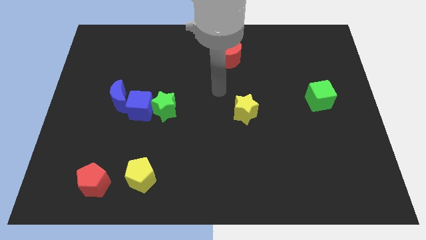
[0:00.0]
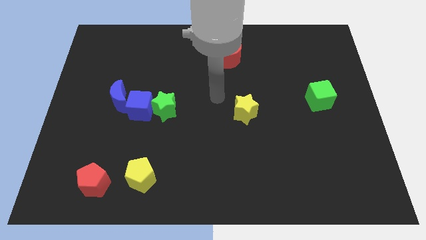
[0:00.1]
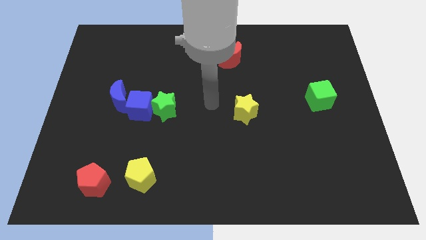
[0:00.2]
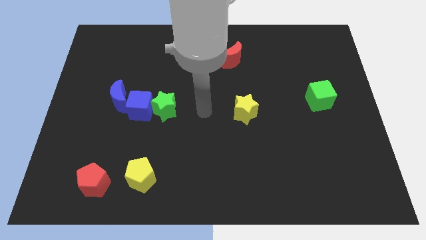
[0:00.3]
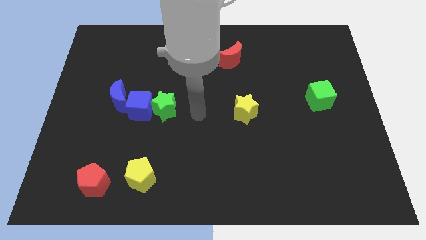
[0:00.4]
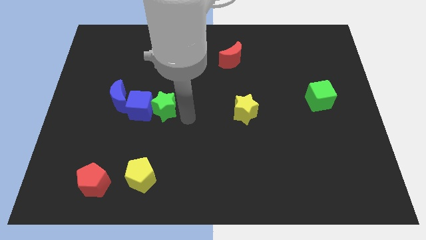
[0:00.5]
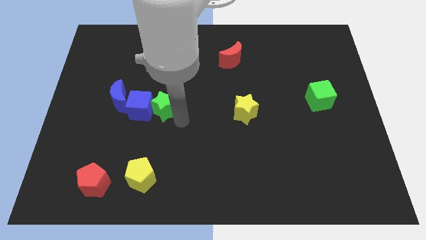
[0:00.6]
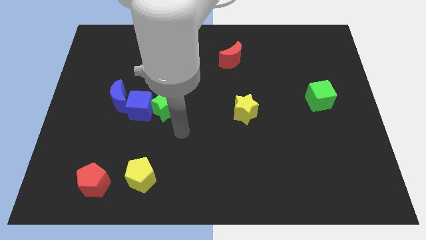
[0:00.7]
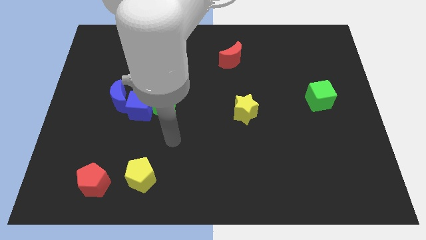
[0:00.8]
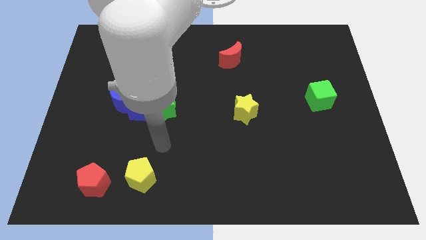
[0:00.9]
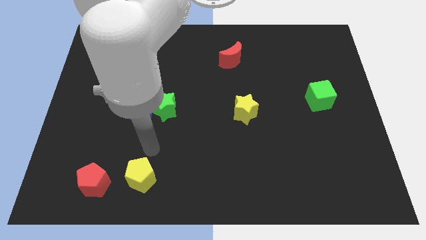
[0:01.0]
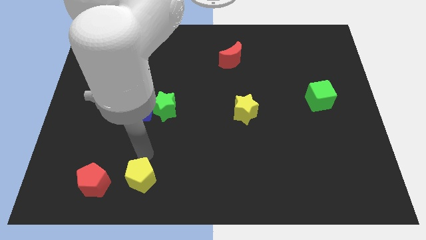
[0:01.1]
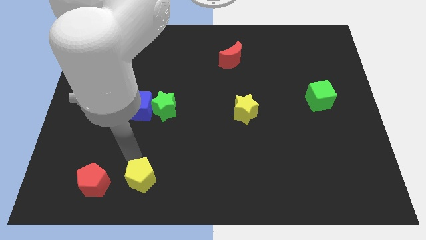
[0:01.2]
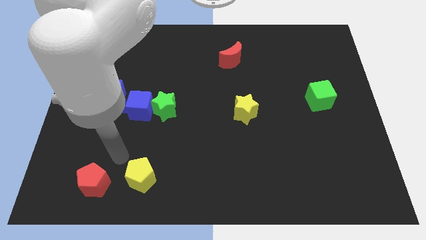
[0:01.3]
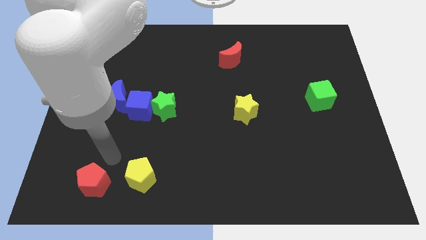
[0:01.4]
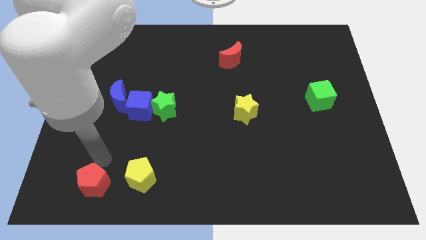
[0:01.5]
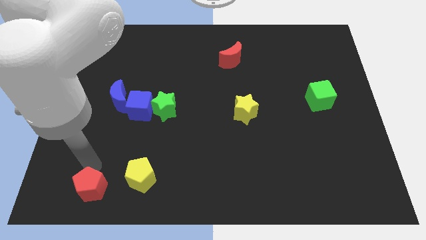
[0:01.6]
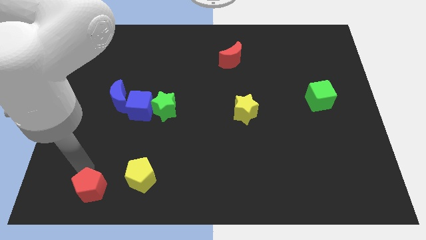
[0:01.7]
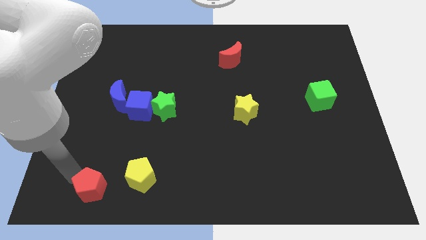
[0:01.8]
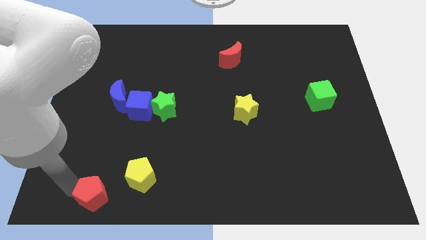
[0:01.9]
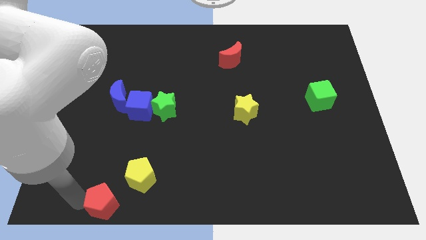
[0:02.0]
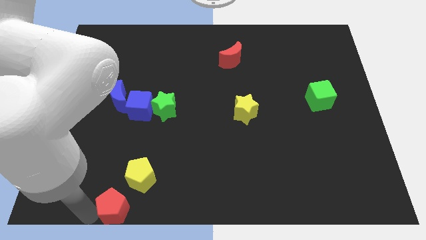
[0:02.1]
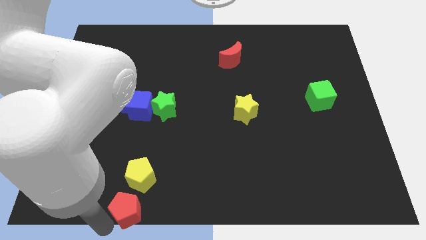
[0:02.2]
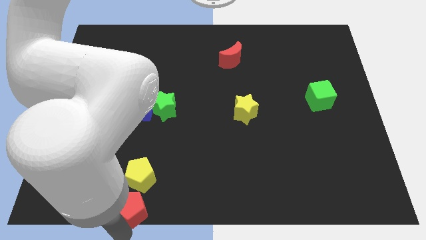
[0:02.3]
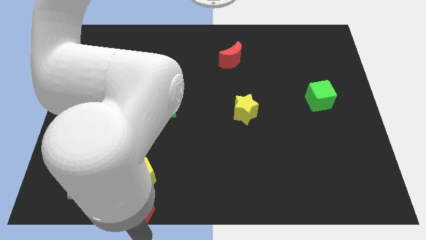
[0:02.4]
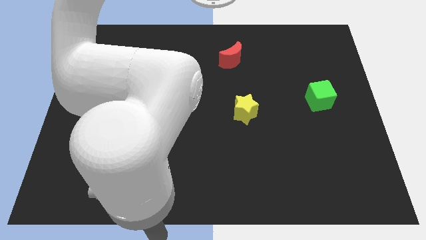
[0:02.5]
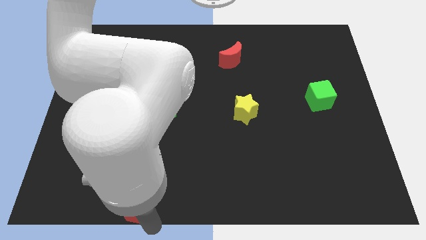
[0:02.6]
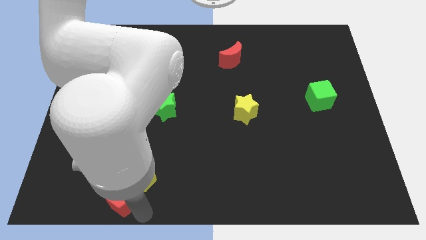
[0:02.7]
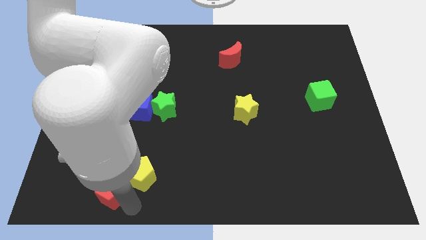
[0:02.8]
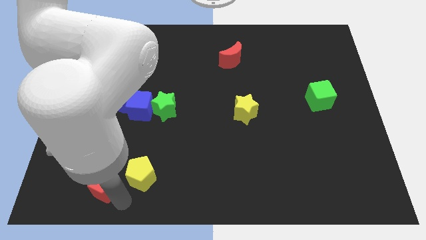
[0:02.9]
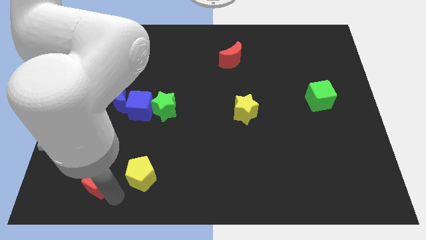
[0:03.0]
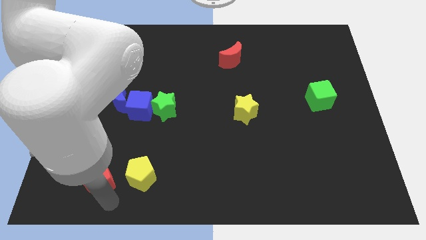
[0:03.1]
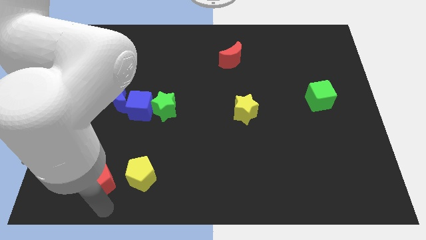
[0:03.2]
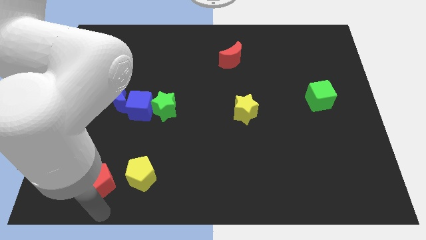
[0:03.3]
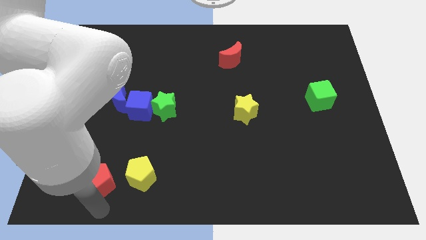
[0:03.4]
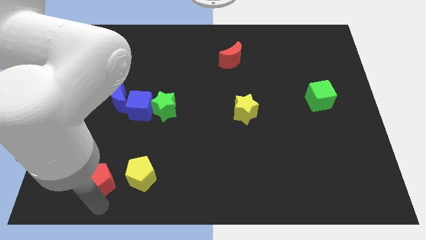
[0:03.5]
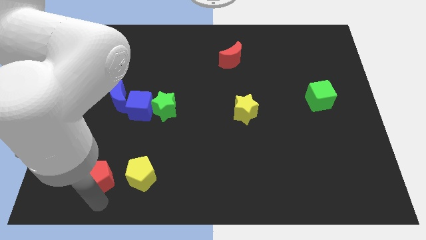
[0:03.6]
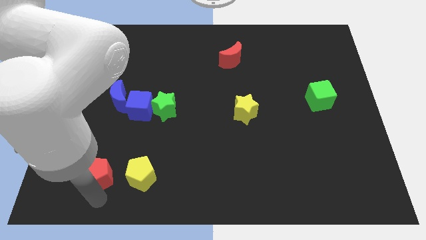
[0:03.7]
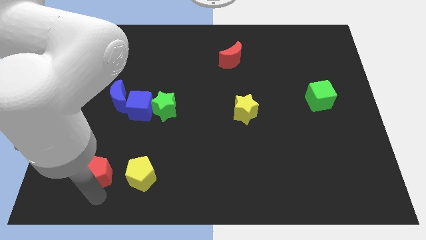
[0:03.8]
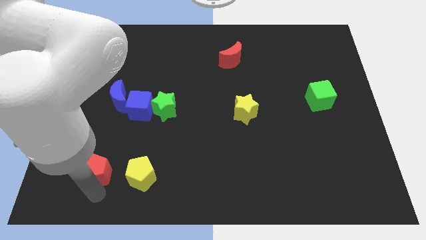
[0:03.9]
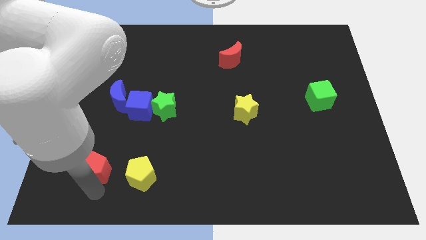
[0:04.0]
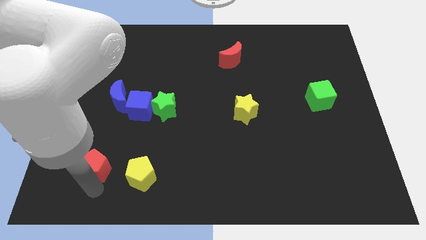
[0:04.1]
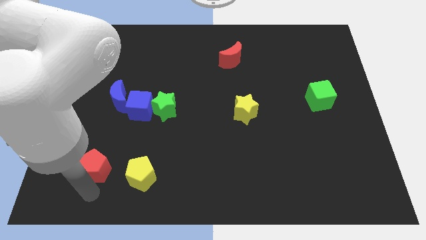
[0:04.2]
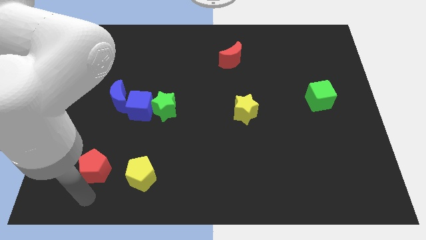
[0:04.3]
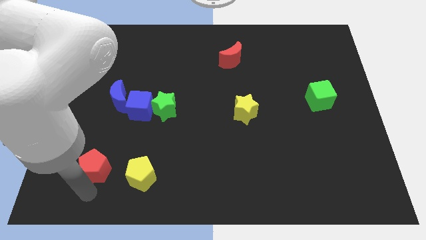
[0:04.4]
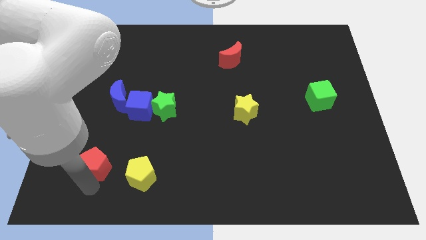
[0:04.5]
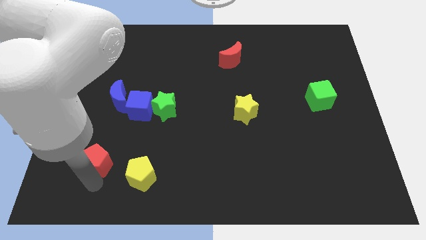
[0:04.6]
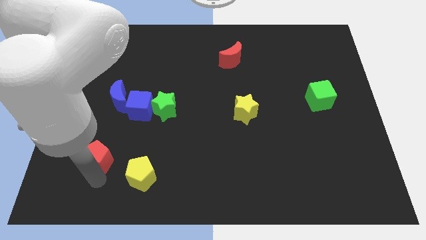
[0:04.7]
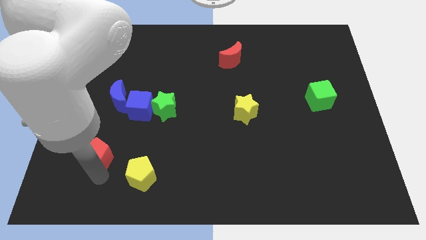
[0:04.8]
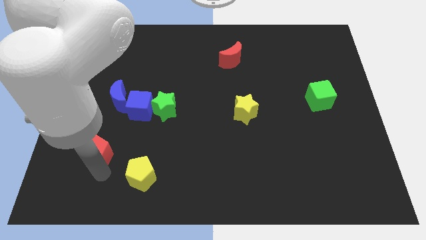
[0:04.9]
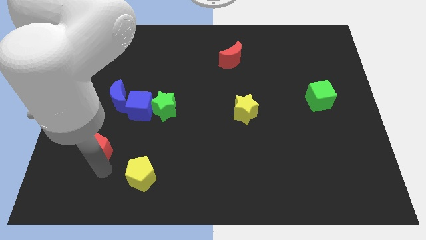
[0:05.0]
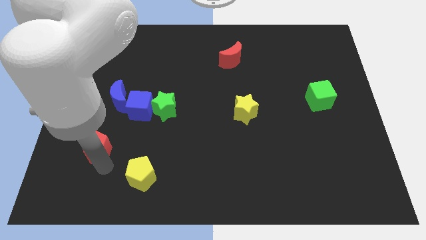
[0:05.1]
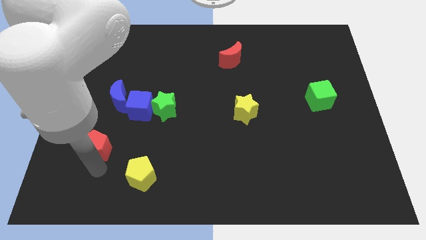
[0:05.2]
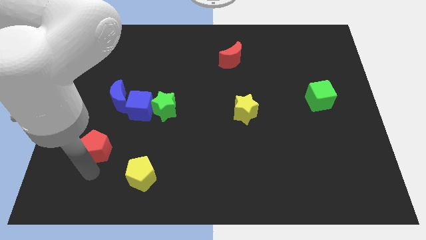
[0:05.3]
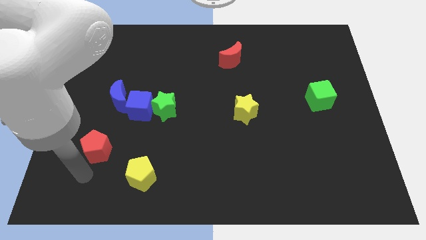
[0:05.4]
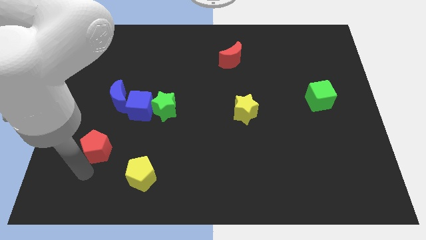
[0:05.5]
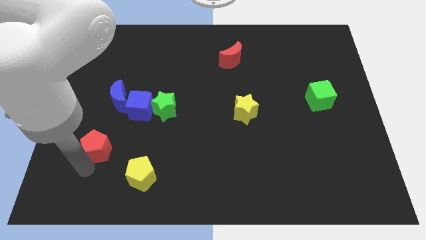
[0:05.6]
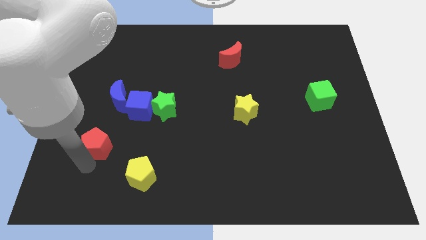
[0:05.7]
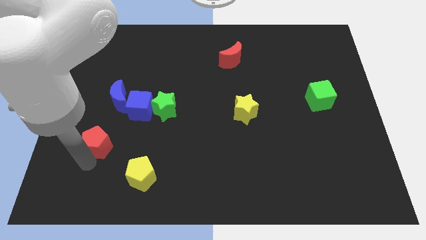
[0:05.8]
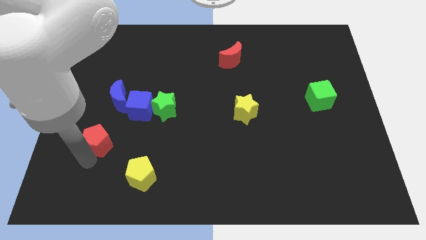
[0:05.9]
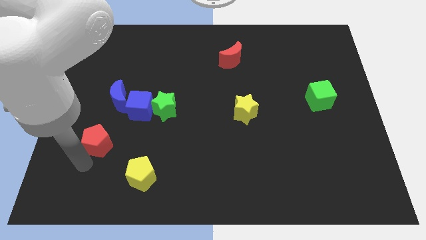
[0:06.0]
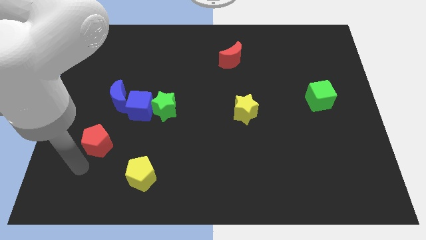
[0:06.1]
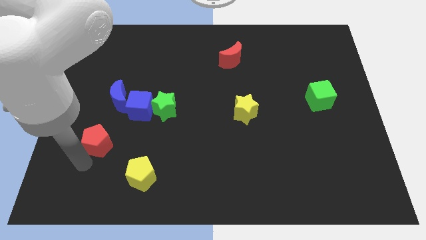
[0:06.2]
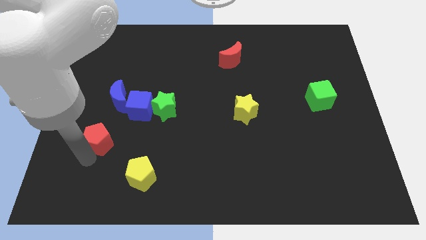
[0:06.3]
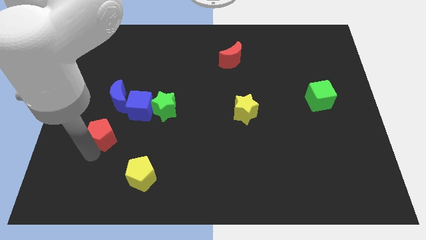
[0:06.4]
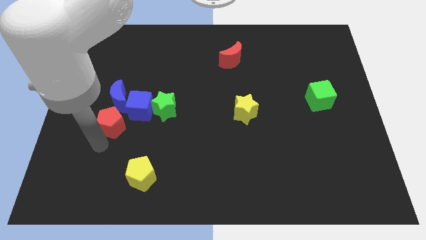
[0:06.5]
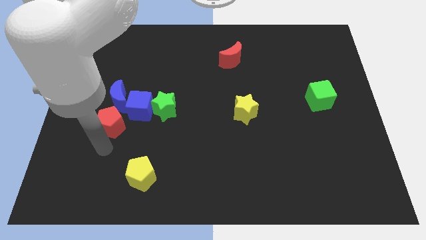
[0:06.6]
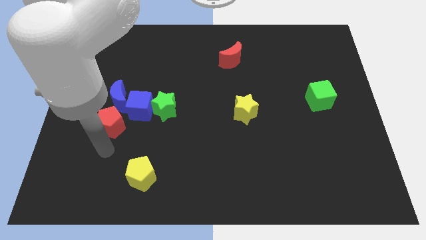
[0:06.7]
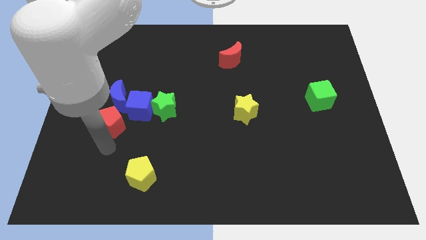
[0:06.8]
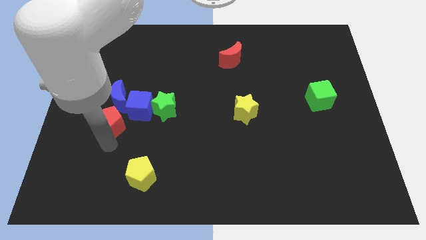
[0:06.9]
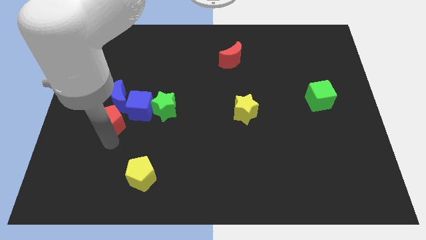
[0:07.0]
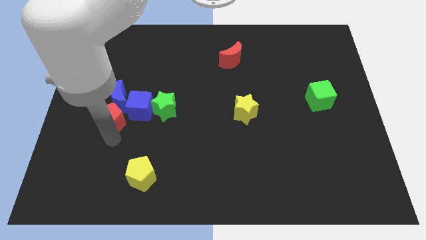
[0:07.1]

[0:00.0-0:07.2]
slide the red pentagon next to the blue moon
